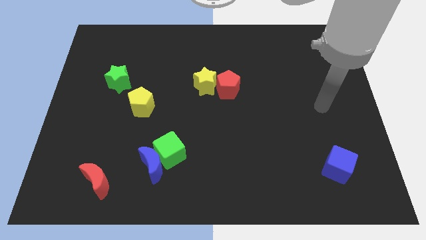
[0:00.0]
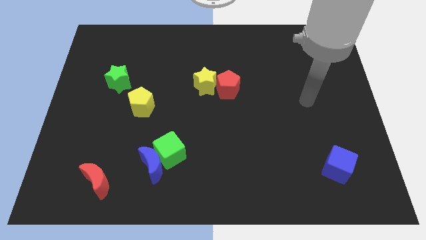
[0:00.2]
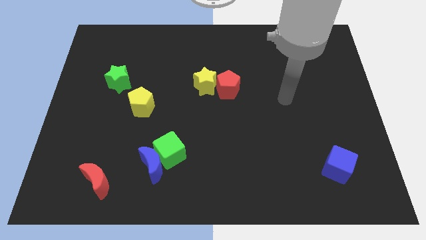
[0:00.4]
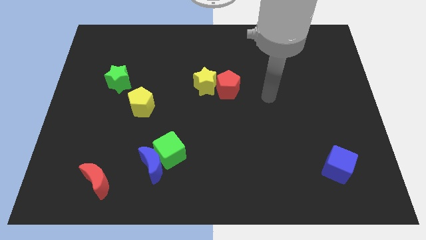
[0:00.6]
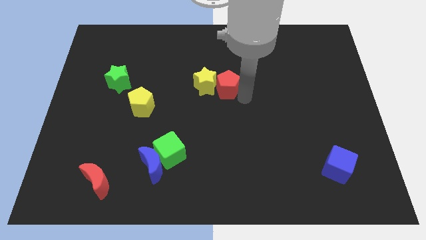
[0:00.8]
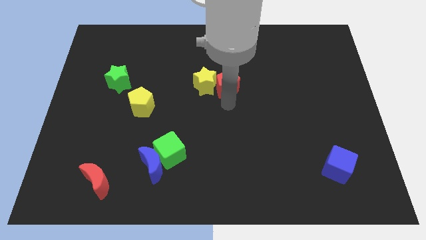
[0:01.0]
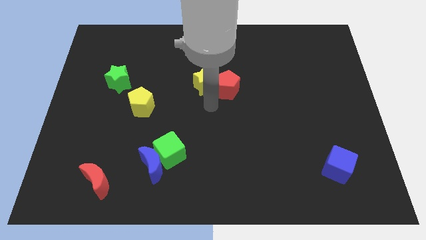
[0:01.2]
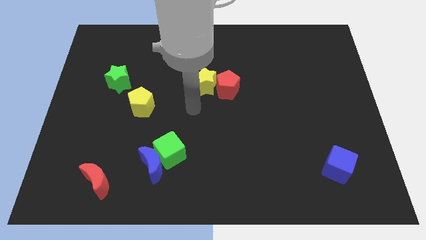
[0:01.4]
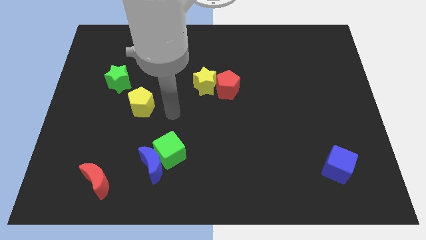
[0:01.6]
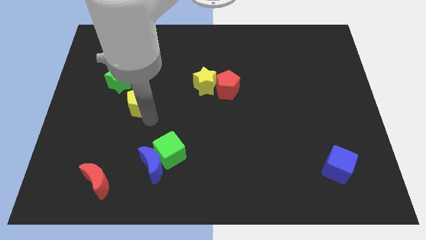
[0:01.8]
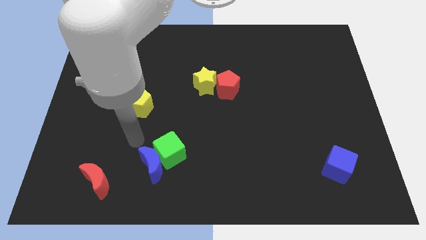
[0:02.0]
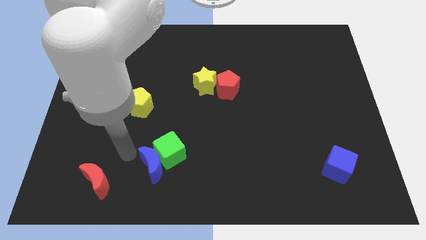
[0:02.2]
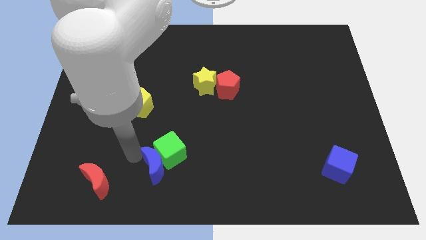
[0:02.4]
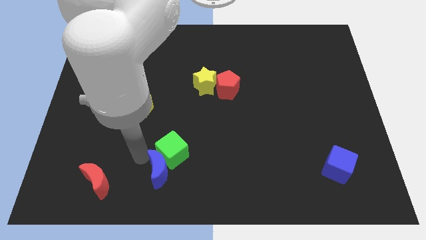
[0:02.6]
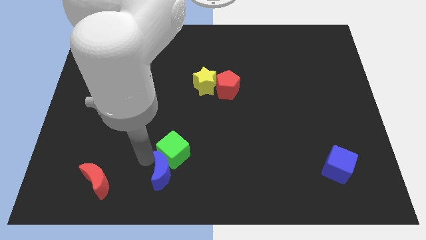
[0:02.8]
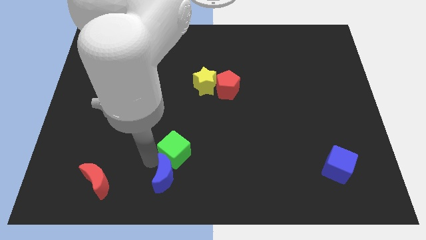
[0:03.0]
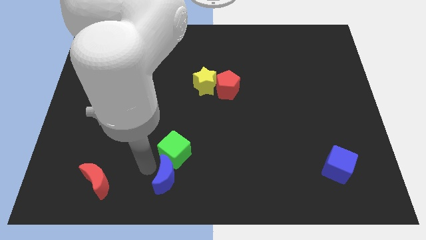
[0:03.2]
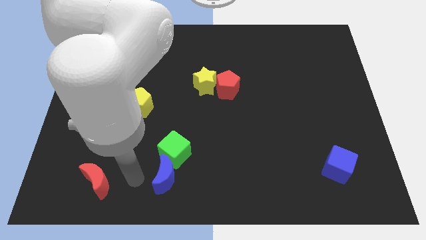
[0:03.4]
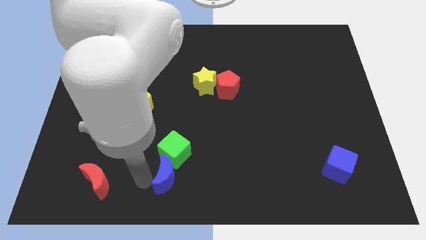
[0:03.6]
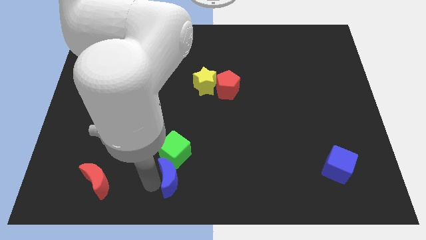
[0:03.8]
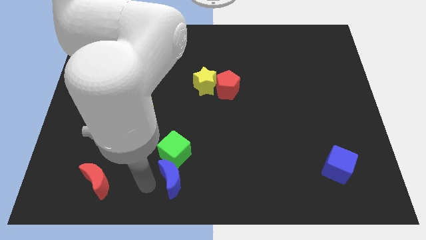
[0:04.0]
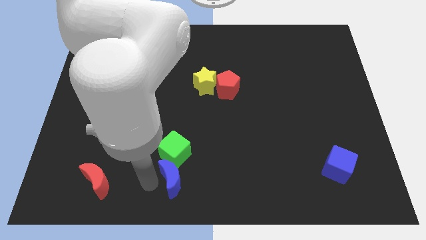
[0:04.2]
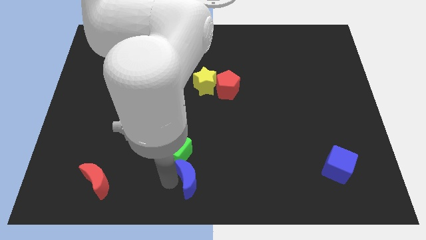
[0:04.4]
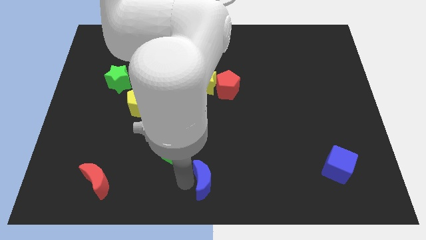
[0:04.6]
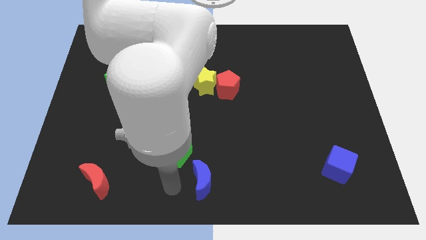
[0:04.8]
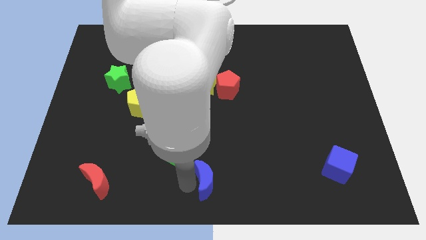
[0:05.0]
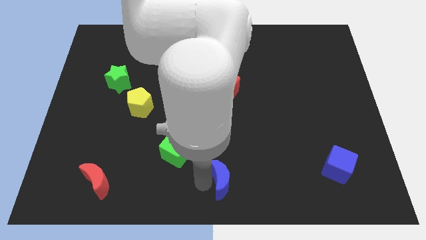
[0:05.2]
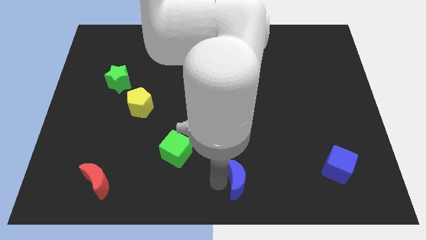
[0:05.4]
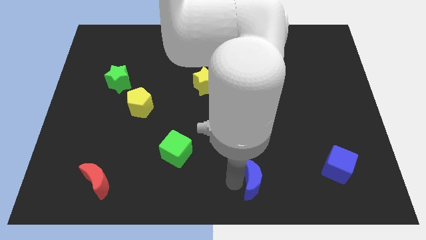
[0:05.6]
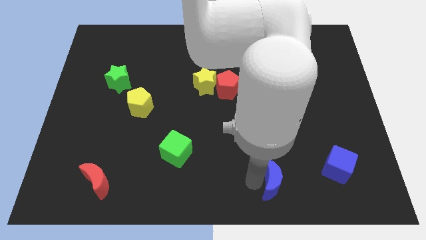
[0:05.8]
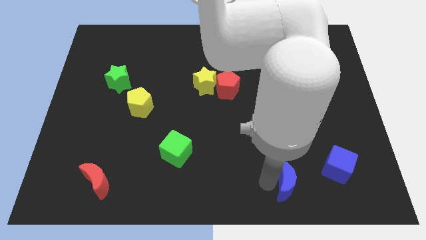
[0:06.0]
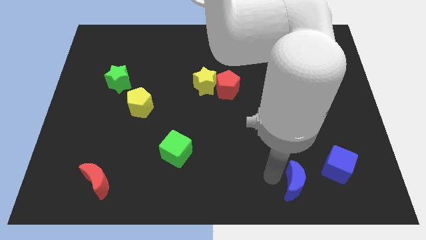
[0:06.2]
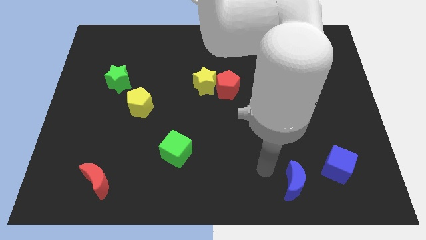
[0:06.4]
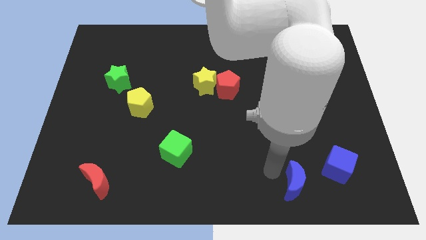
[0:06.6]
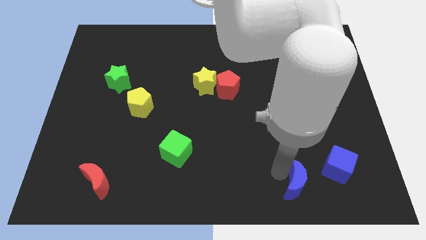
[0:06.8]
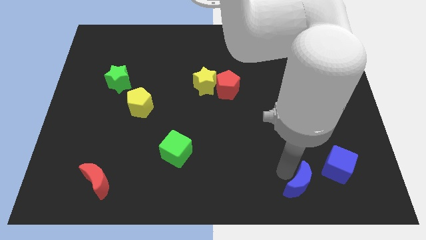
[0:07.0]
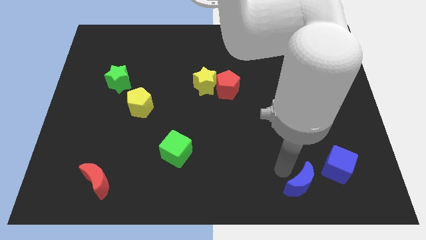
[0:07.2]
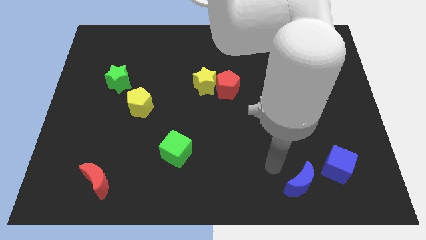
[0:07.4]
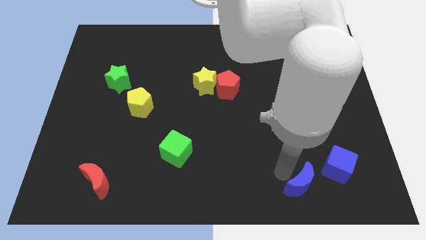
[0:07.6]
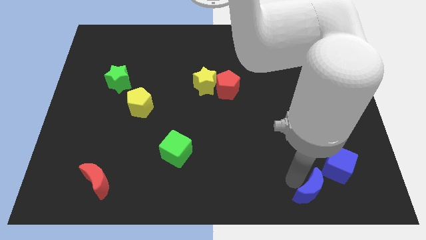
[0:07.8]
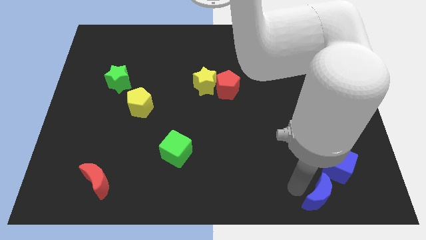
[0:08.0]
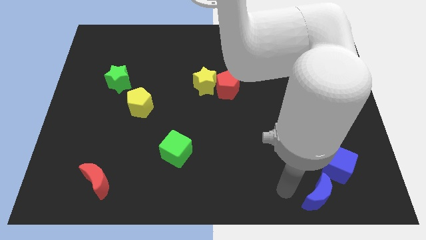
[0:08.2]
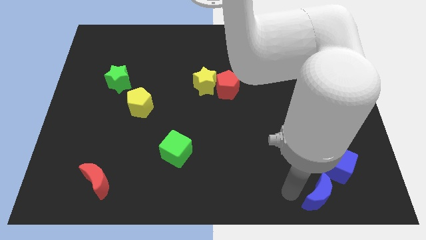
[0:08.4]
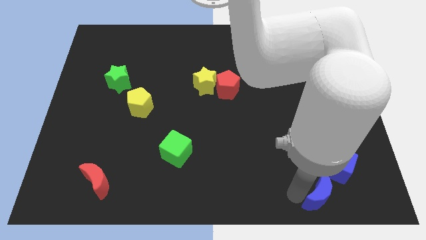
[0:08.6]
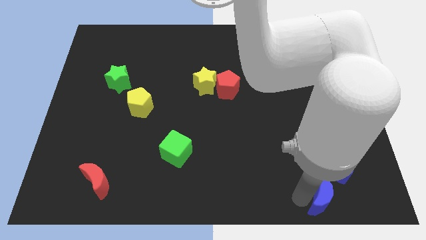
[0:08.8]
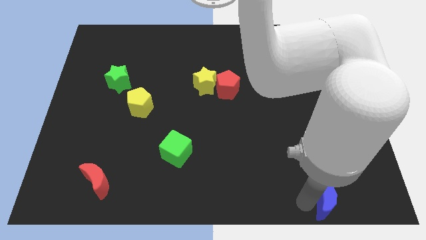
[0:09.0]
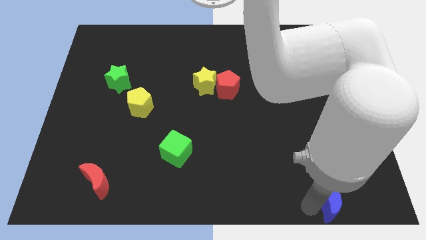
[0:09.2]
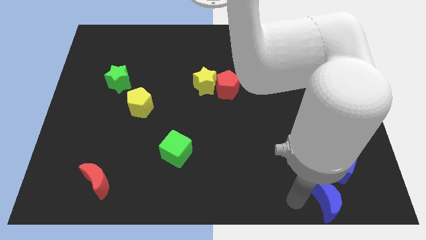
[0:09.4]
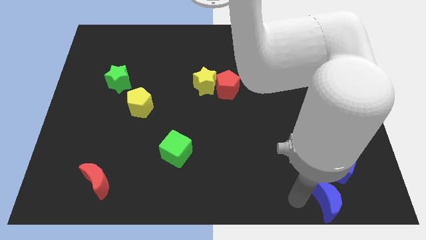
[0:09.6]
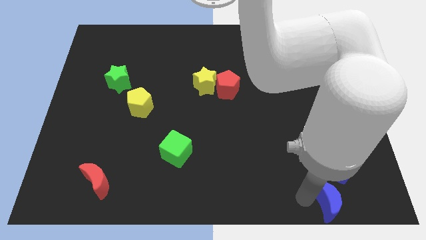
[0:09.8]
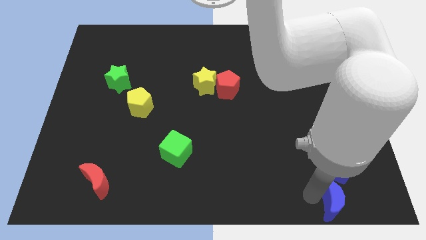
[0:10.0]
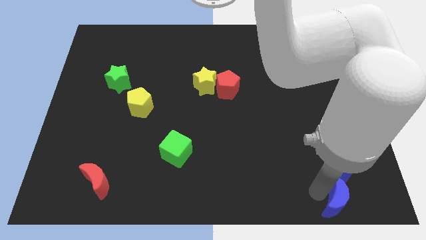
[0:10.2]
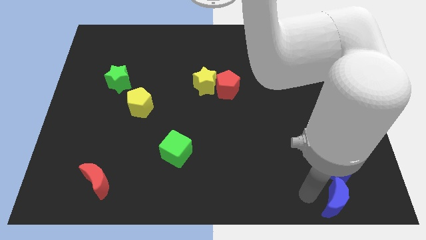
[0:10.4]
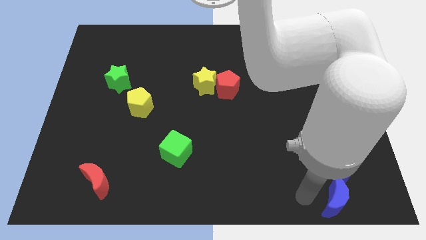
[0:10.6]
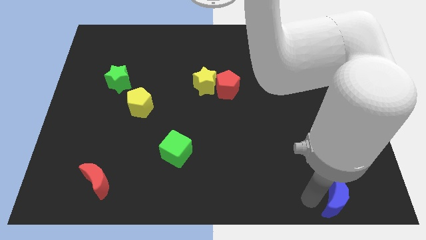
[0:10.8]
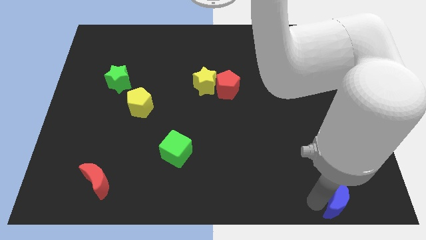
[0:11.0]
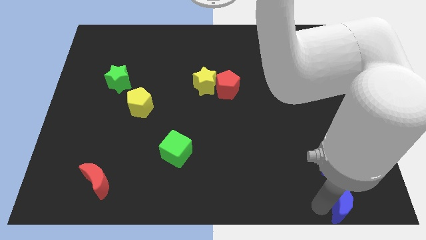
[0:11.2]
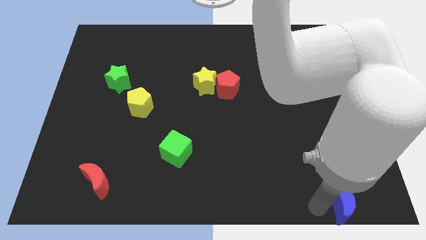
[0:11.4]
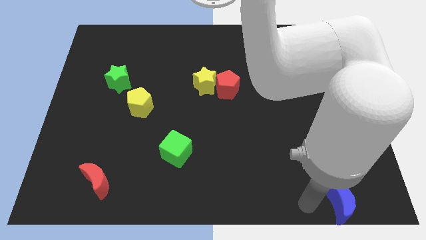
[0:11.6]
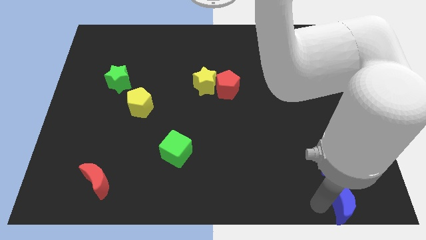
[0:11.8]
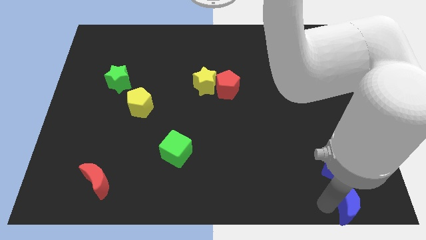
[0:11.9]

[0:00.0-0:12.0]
move the blue moon to the bottom right
